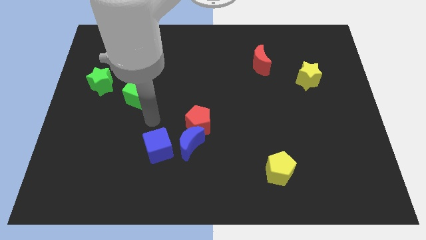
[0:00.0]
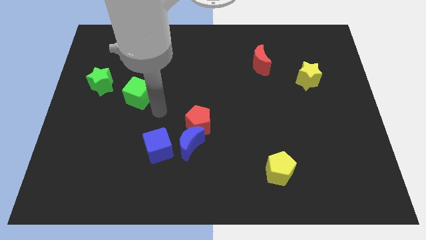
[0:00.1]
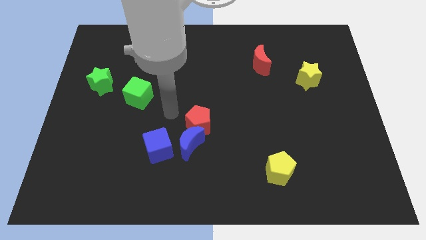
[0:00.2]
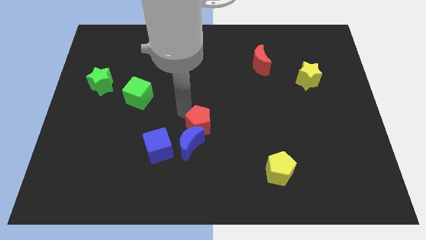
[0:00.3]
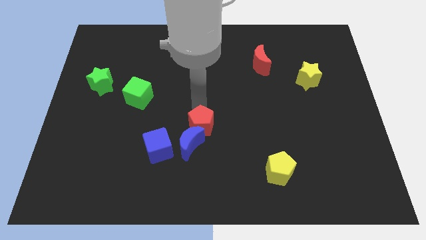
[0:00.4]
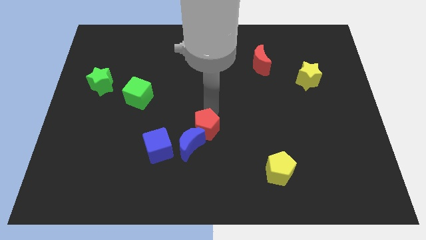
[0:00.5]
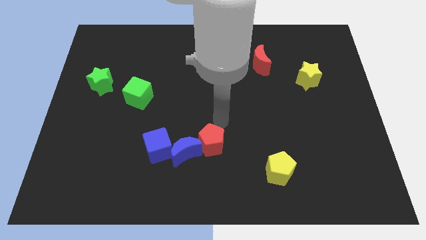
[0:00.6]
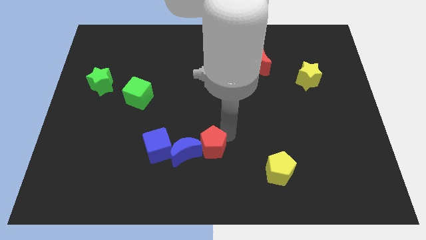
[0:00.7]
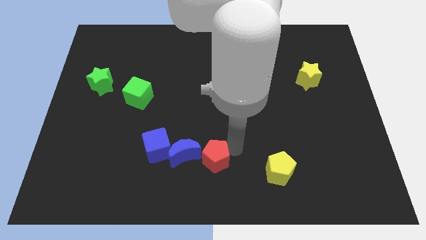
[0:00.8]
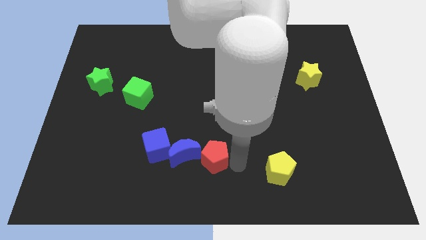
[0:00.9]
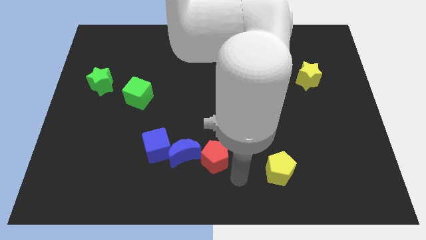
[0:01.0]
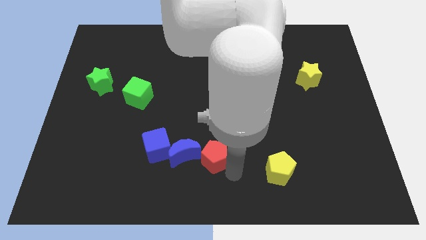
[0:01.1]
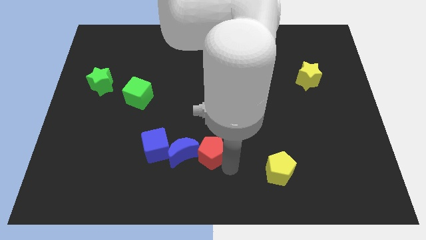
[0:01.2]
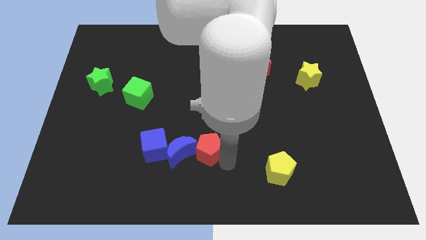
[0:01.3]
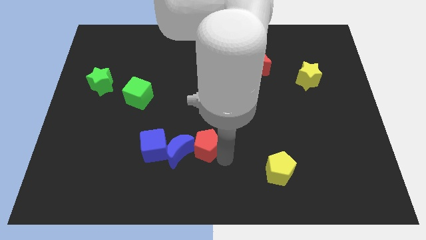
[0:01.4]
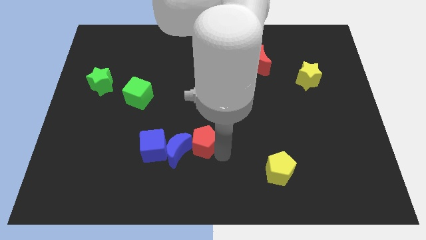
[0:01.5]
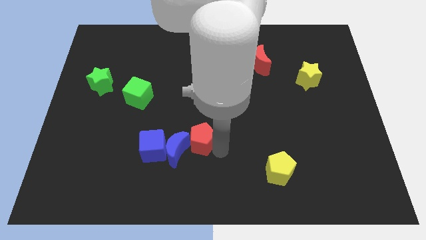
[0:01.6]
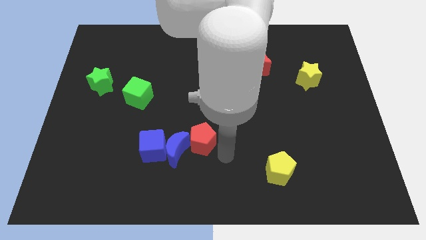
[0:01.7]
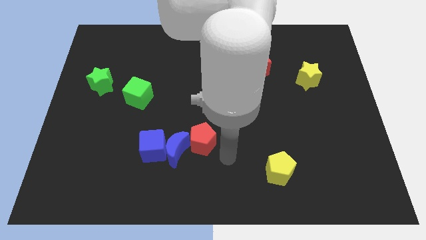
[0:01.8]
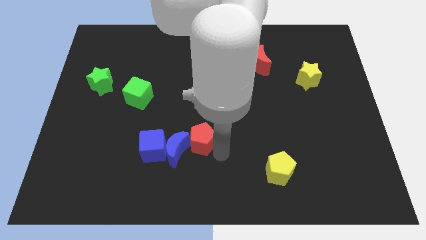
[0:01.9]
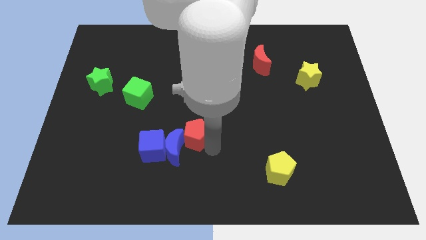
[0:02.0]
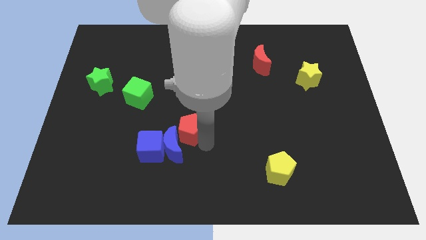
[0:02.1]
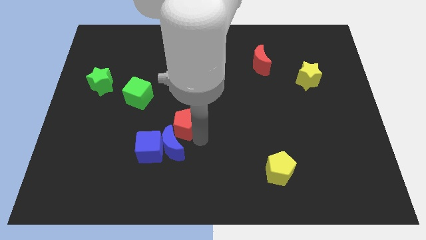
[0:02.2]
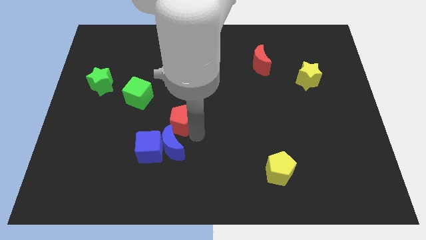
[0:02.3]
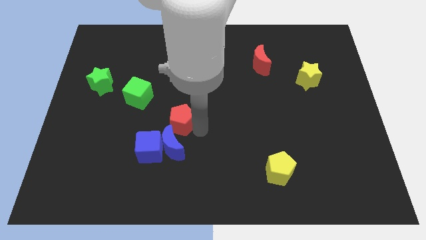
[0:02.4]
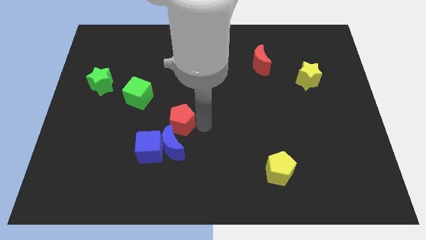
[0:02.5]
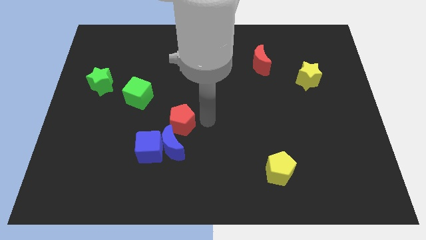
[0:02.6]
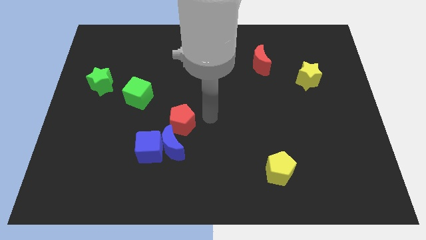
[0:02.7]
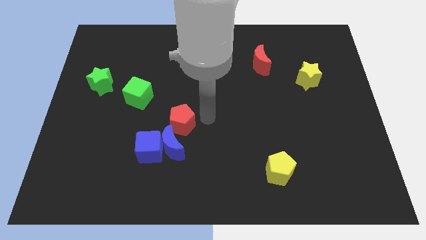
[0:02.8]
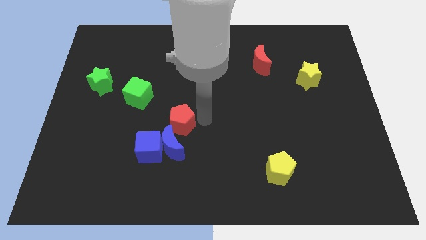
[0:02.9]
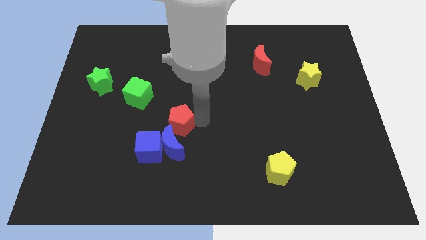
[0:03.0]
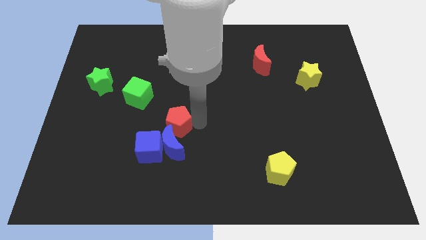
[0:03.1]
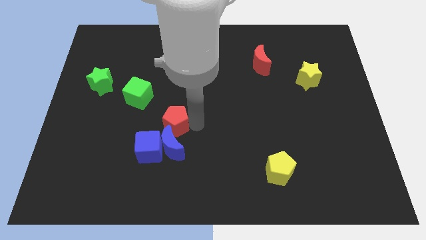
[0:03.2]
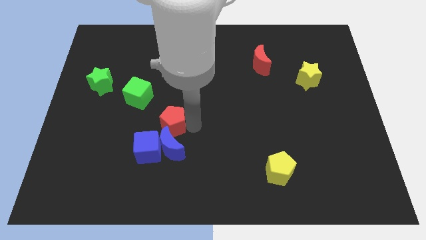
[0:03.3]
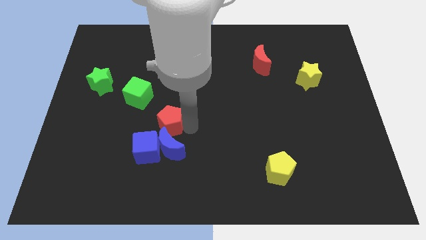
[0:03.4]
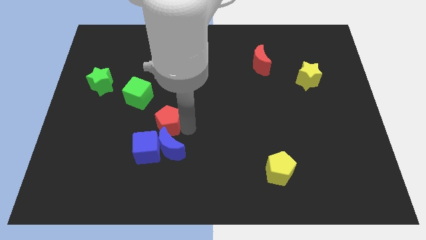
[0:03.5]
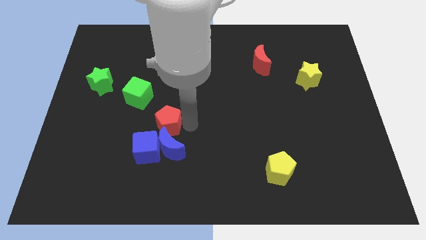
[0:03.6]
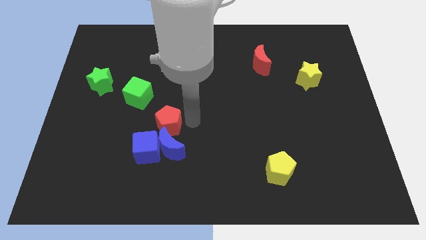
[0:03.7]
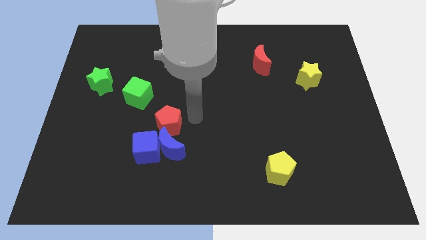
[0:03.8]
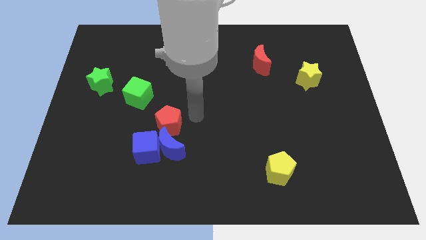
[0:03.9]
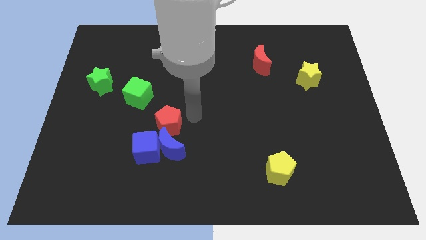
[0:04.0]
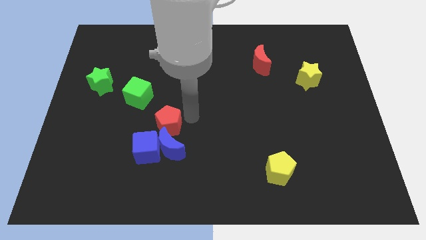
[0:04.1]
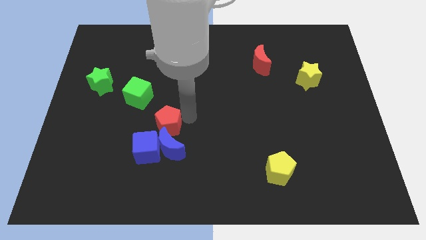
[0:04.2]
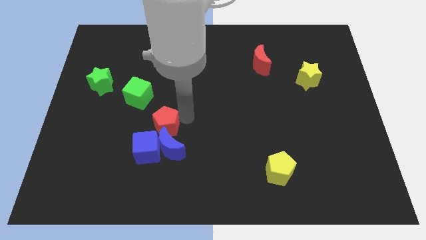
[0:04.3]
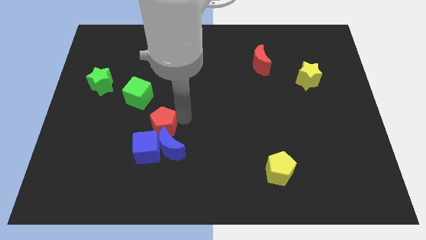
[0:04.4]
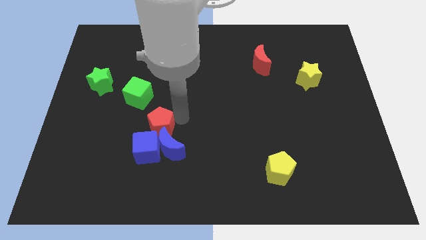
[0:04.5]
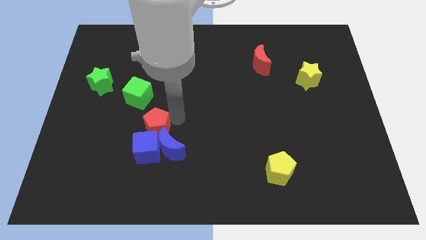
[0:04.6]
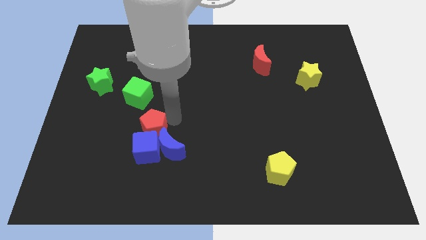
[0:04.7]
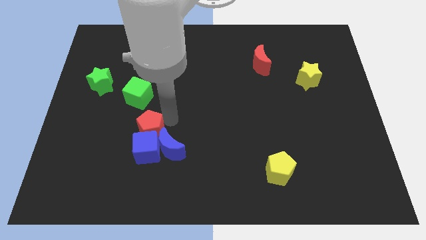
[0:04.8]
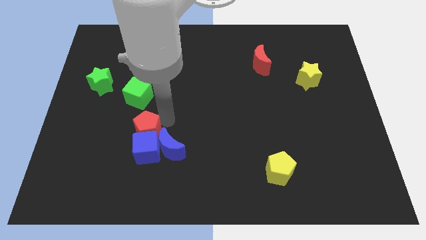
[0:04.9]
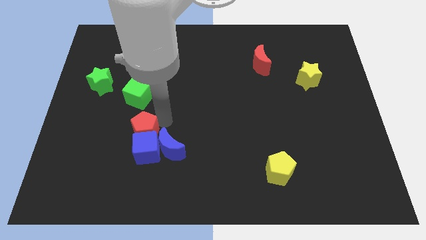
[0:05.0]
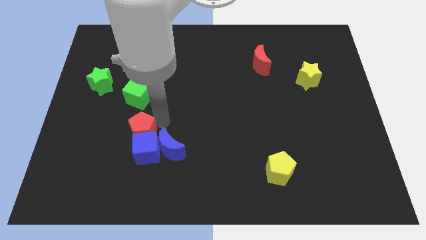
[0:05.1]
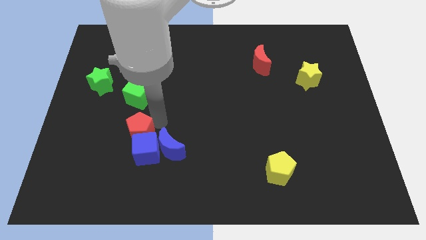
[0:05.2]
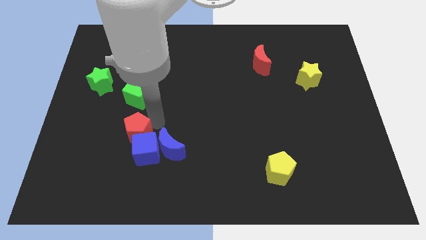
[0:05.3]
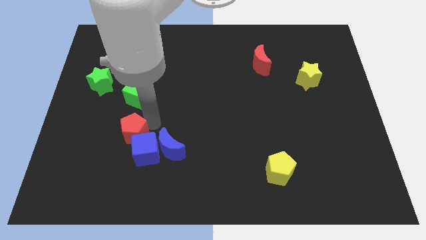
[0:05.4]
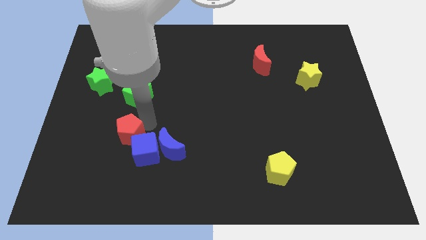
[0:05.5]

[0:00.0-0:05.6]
slide the red pentagon to the left of the blue cube

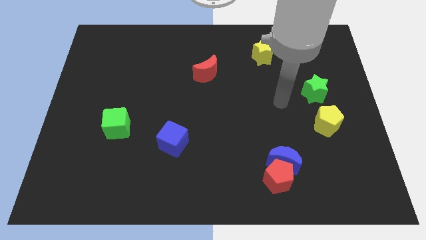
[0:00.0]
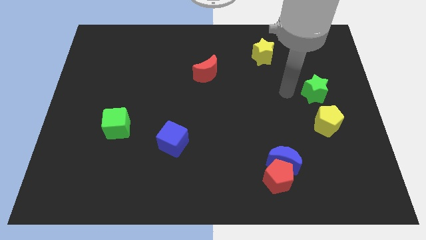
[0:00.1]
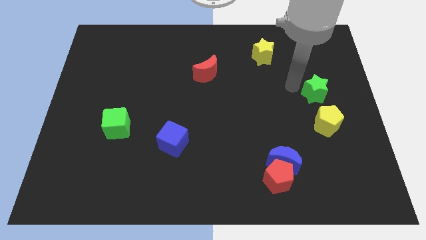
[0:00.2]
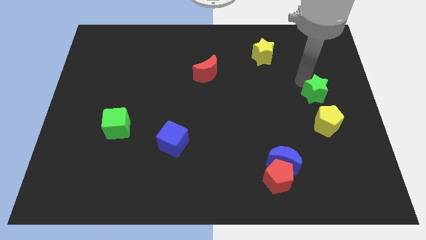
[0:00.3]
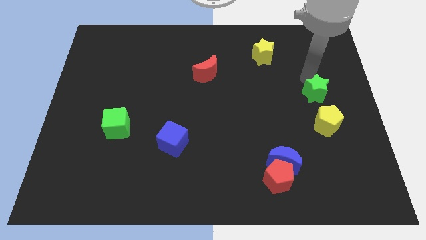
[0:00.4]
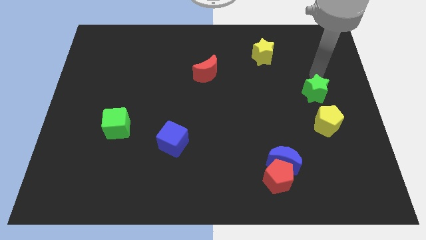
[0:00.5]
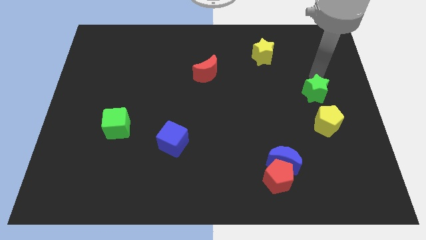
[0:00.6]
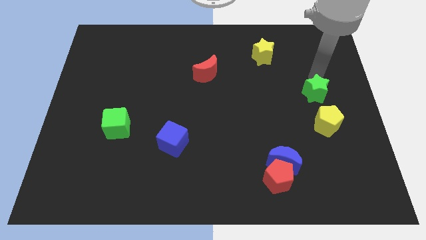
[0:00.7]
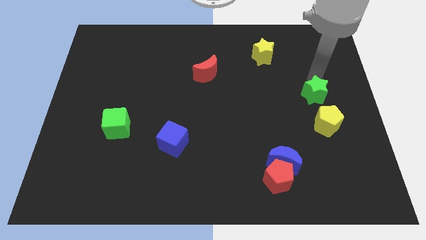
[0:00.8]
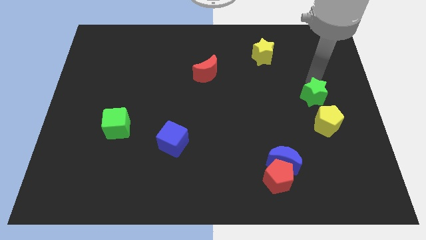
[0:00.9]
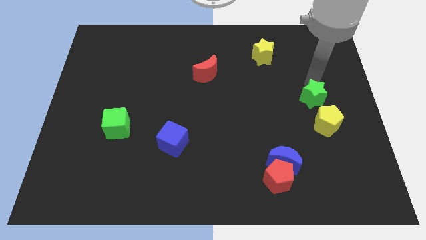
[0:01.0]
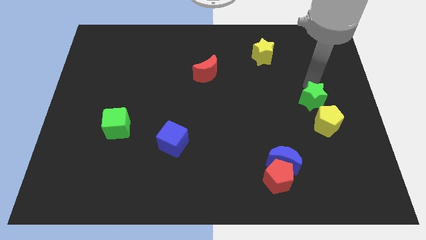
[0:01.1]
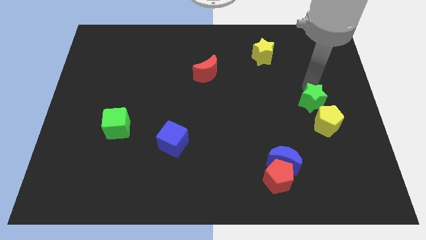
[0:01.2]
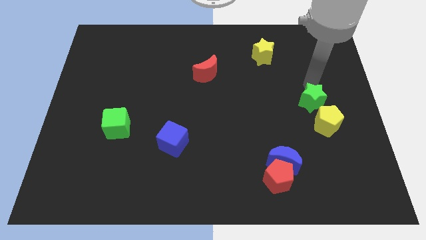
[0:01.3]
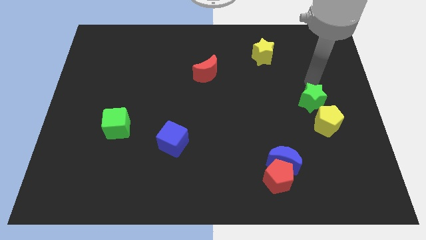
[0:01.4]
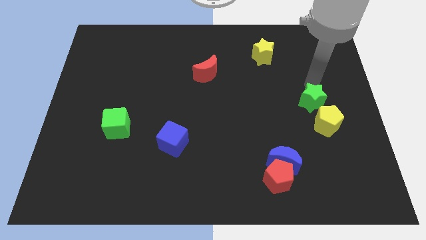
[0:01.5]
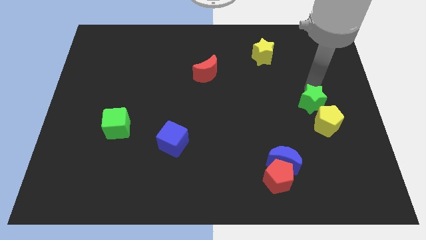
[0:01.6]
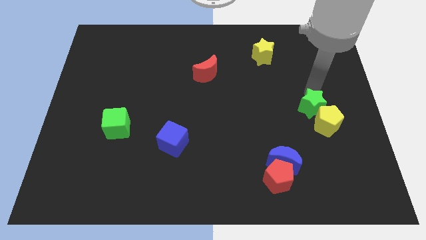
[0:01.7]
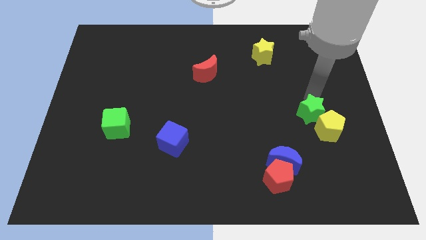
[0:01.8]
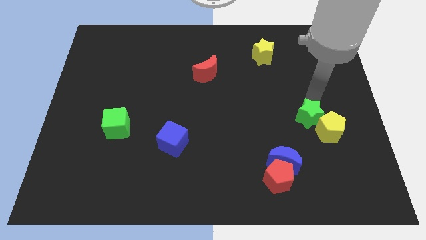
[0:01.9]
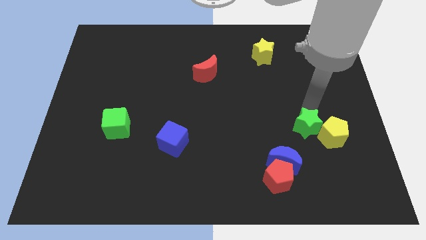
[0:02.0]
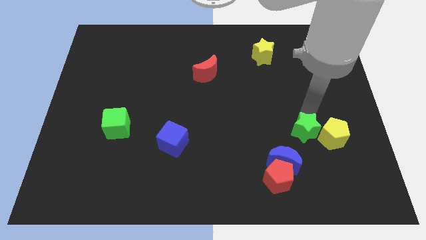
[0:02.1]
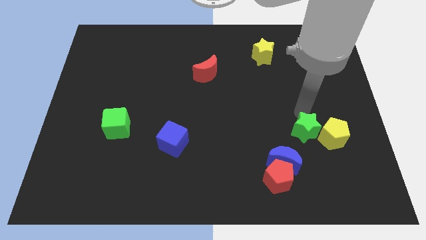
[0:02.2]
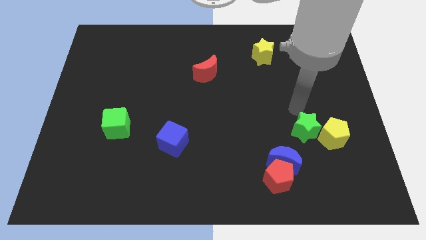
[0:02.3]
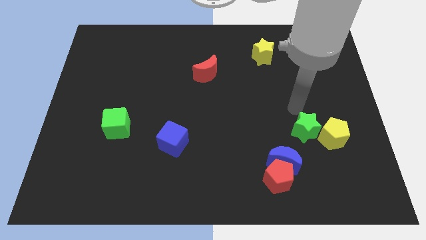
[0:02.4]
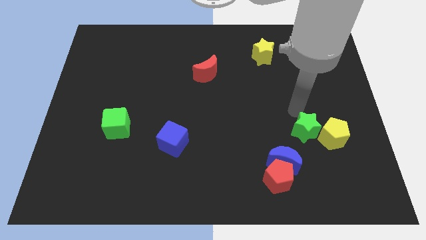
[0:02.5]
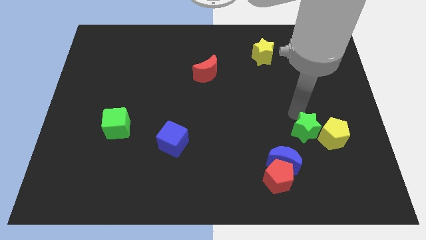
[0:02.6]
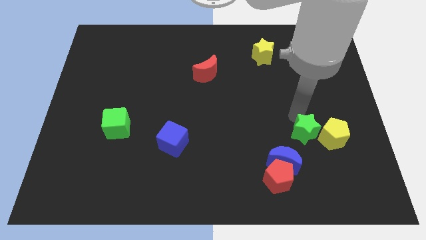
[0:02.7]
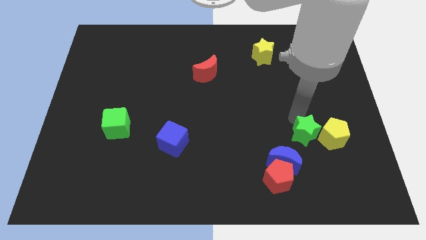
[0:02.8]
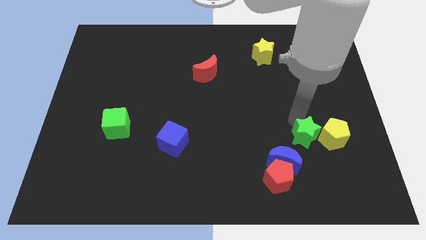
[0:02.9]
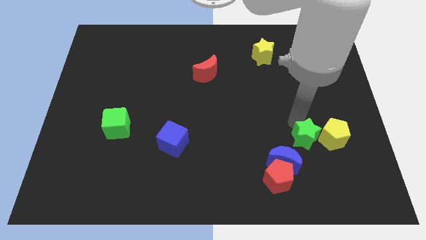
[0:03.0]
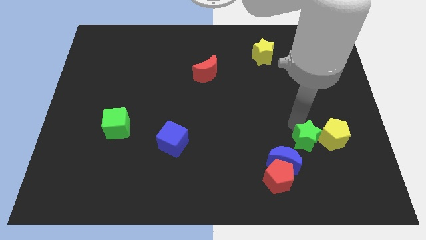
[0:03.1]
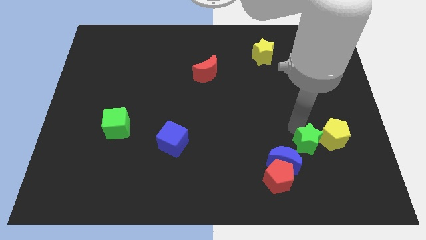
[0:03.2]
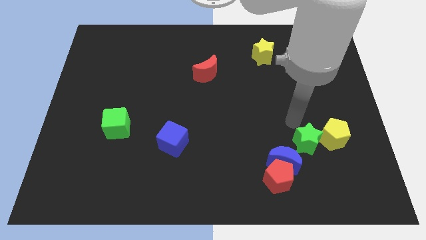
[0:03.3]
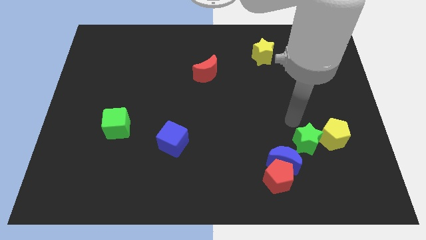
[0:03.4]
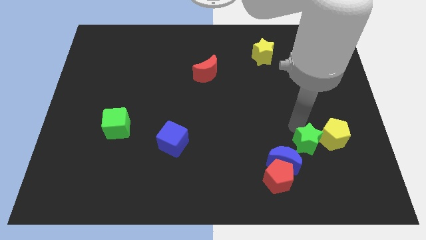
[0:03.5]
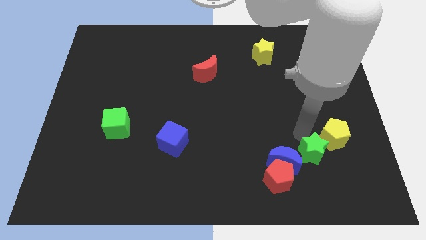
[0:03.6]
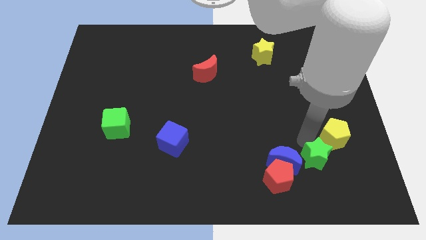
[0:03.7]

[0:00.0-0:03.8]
put the green star right of the red pentagon
